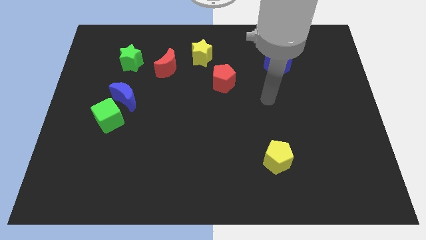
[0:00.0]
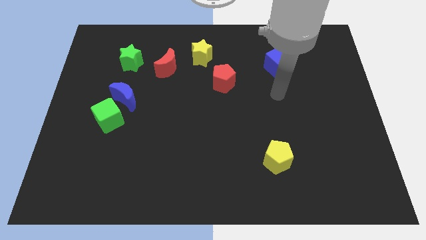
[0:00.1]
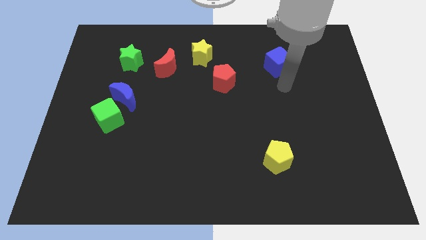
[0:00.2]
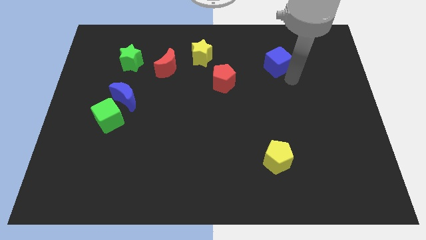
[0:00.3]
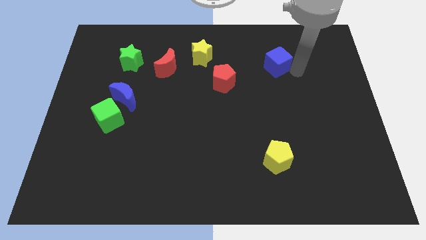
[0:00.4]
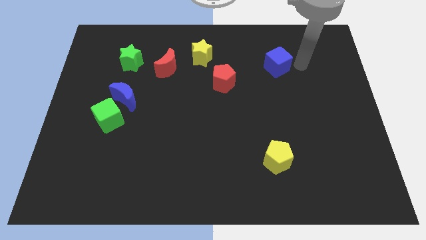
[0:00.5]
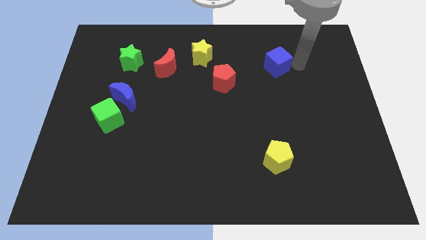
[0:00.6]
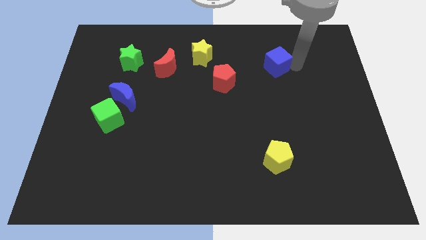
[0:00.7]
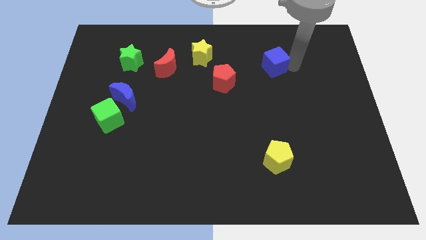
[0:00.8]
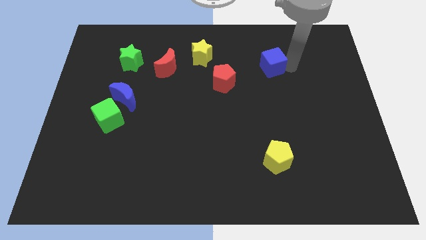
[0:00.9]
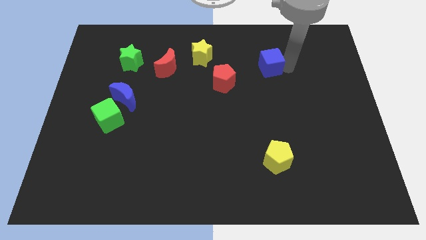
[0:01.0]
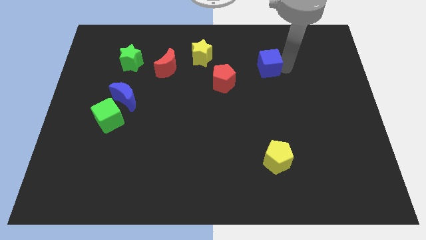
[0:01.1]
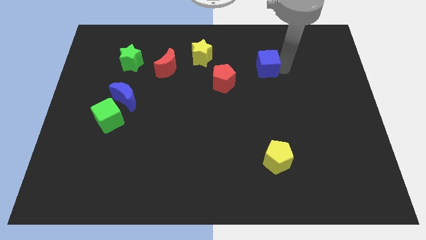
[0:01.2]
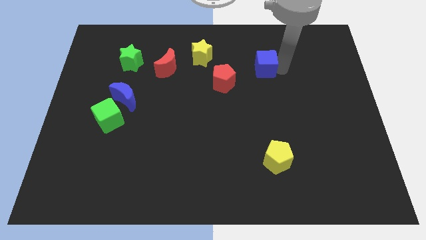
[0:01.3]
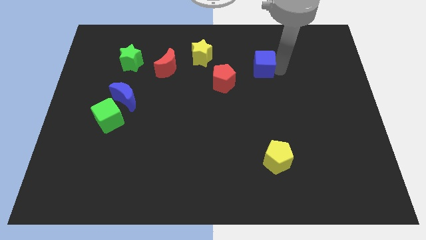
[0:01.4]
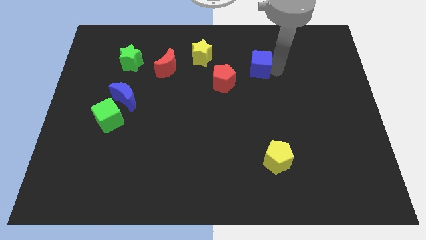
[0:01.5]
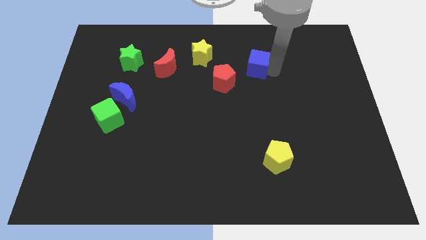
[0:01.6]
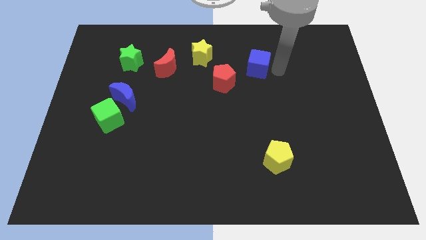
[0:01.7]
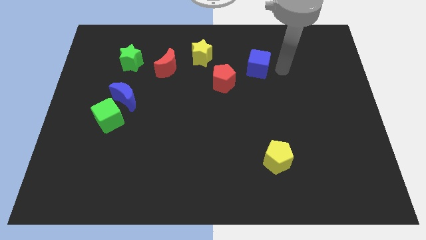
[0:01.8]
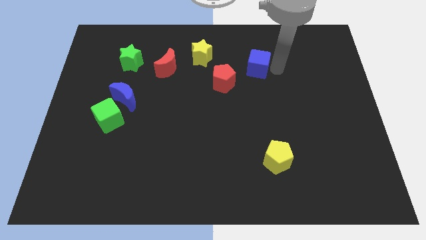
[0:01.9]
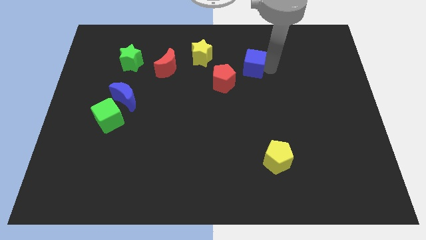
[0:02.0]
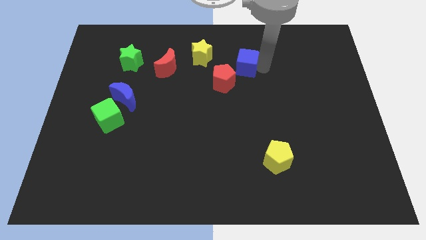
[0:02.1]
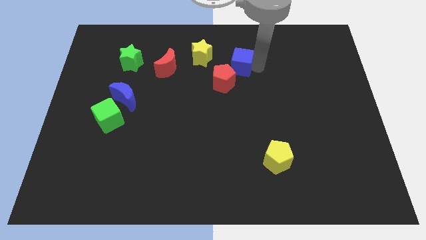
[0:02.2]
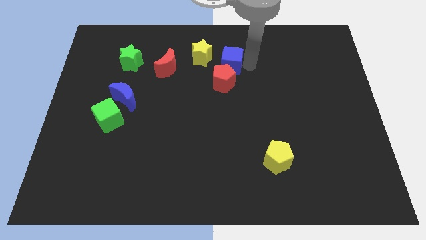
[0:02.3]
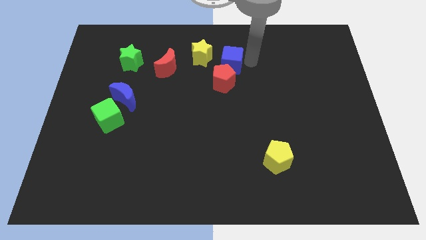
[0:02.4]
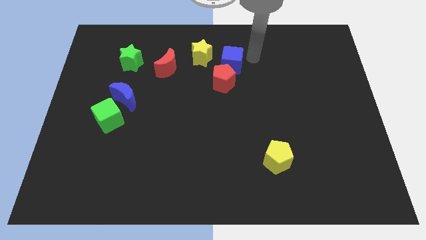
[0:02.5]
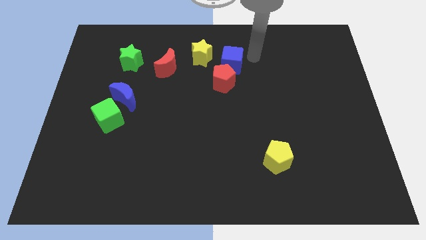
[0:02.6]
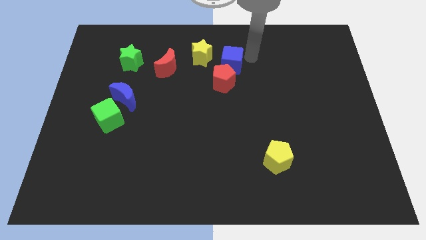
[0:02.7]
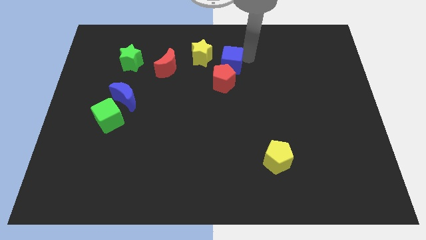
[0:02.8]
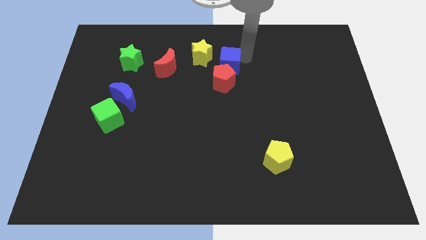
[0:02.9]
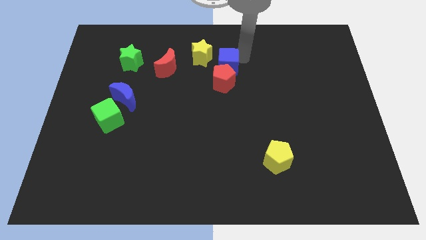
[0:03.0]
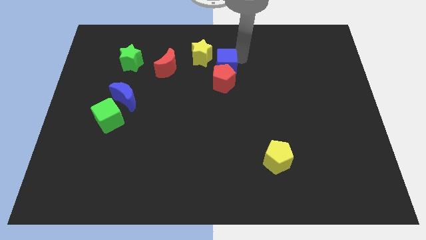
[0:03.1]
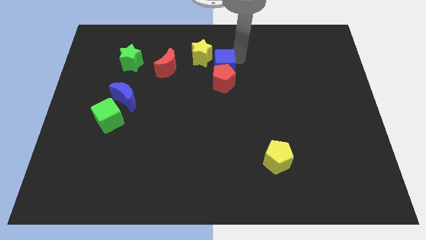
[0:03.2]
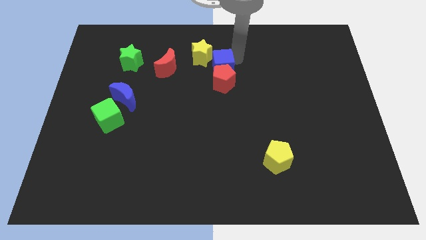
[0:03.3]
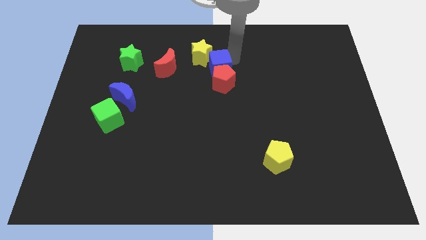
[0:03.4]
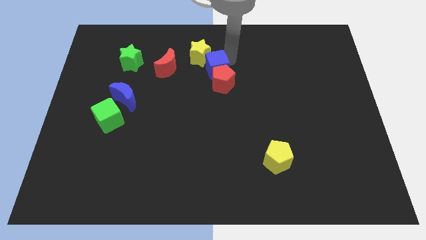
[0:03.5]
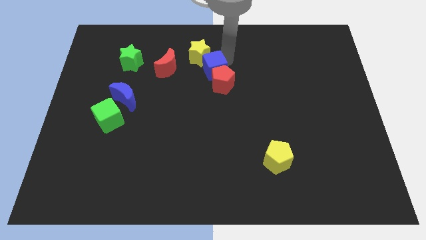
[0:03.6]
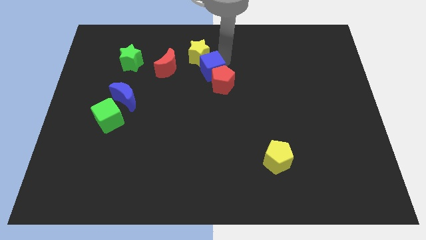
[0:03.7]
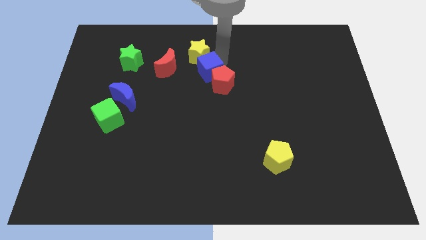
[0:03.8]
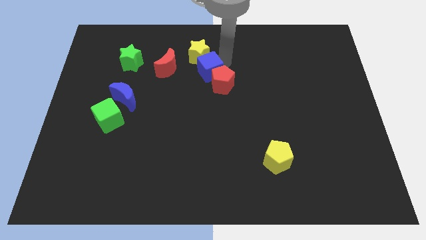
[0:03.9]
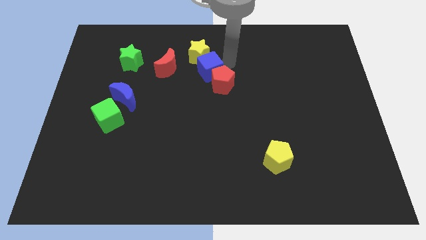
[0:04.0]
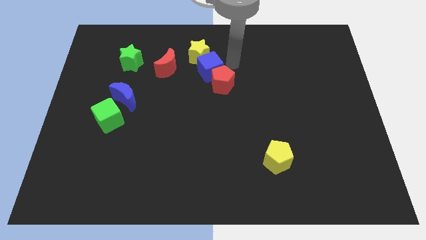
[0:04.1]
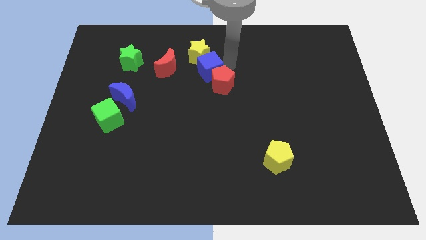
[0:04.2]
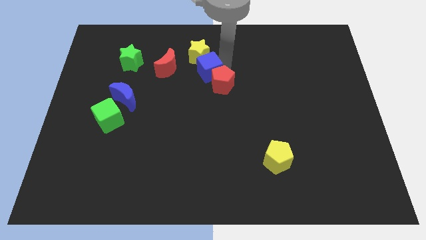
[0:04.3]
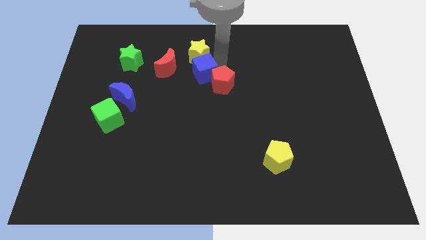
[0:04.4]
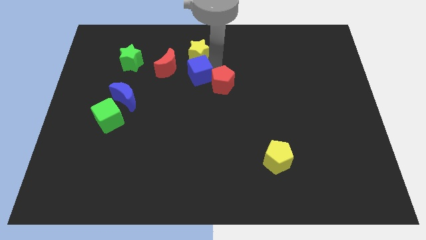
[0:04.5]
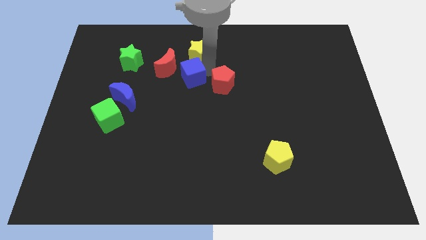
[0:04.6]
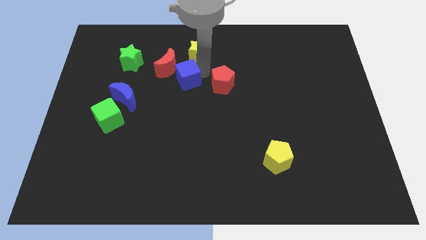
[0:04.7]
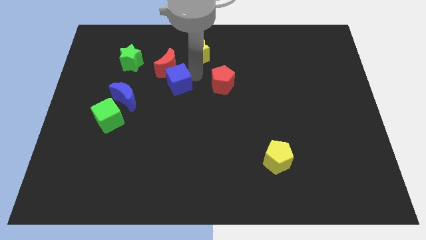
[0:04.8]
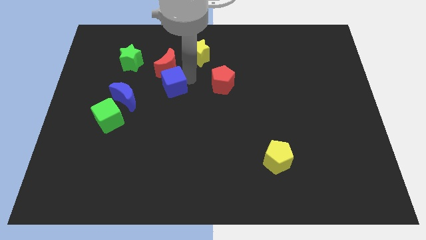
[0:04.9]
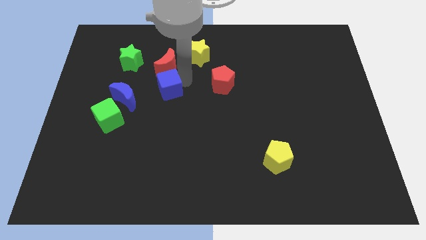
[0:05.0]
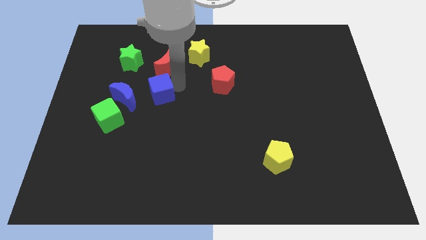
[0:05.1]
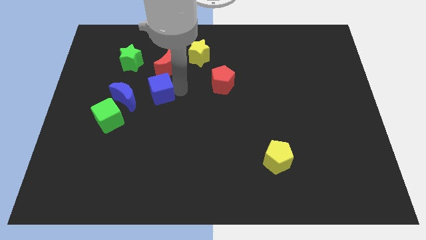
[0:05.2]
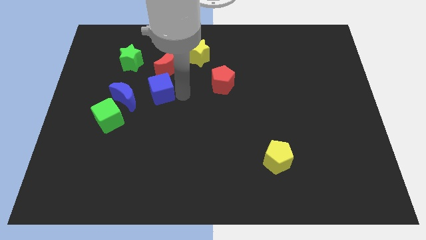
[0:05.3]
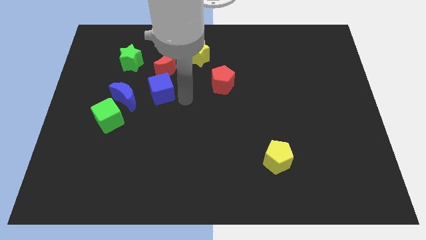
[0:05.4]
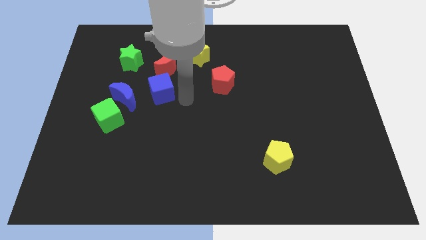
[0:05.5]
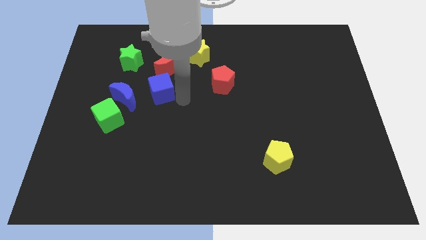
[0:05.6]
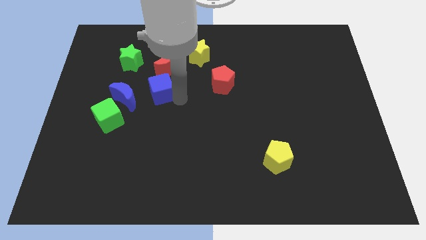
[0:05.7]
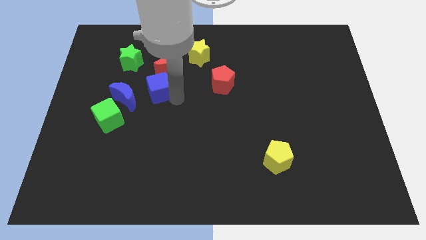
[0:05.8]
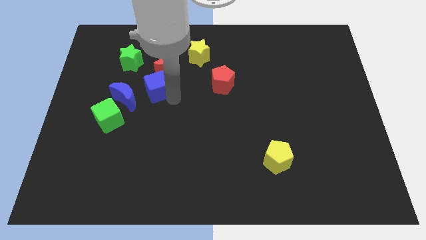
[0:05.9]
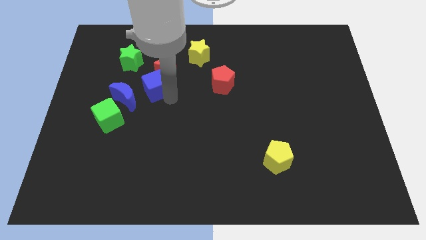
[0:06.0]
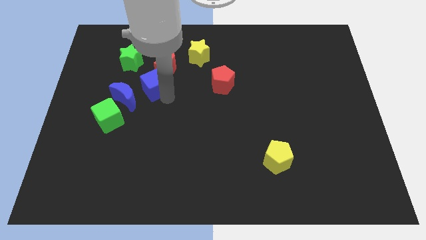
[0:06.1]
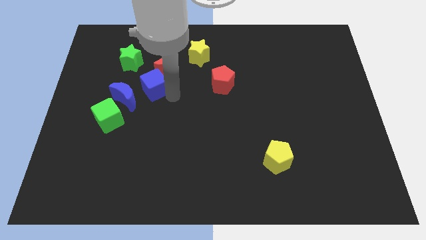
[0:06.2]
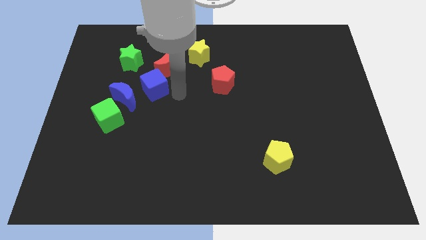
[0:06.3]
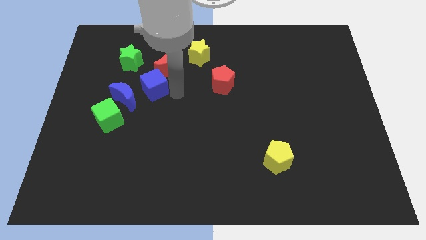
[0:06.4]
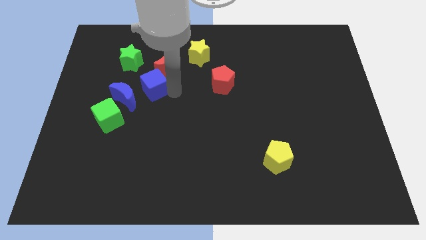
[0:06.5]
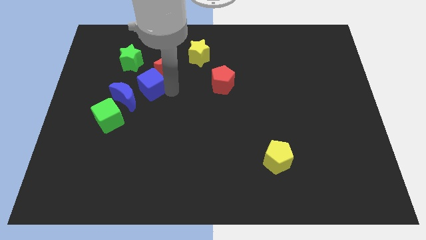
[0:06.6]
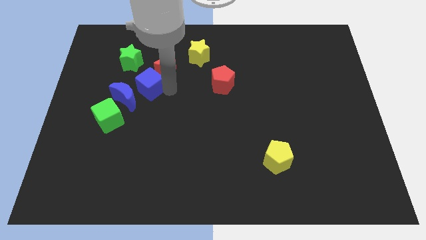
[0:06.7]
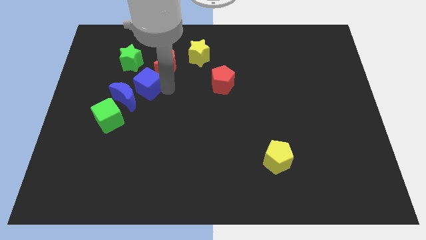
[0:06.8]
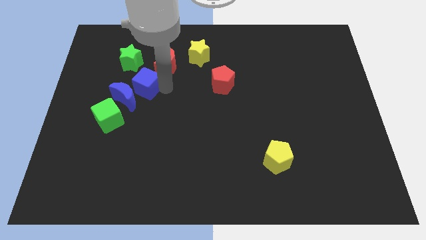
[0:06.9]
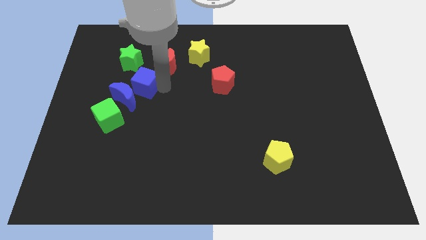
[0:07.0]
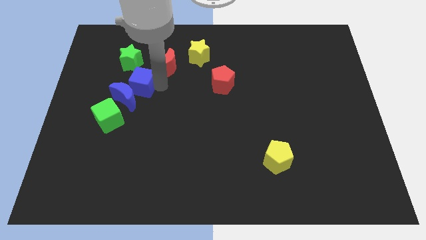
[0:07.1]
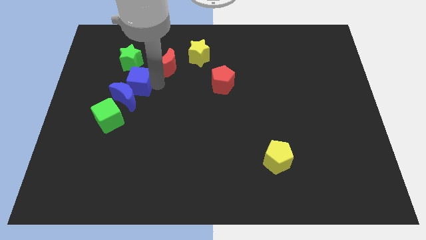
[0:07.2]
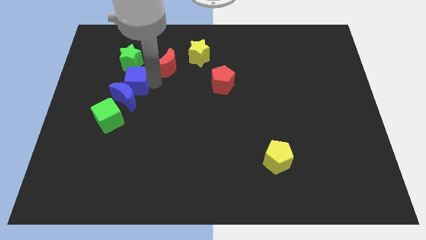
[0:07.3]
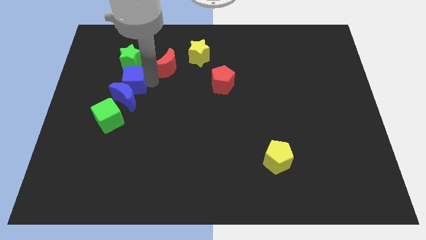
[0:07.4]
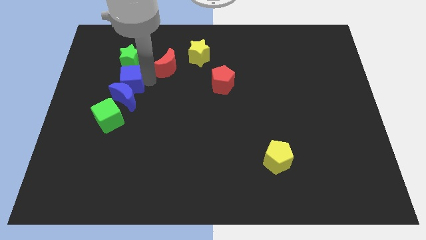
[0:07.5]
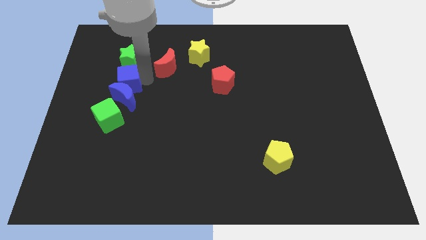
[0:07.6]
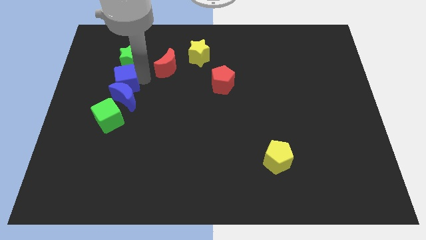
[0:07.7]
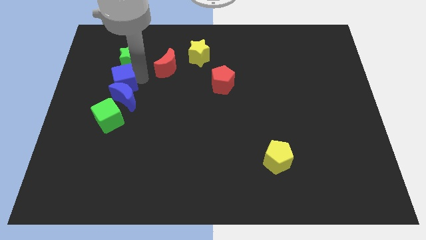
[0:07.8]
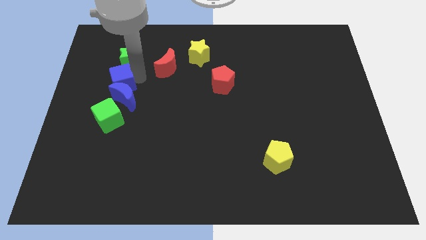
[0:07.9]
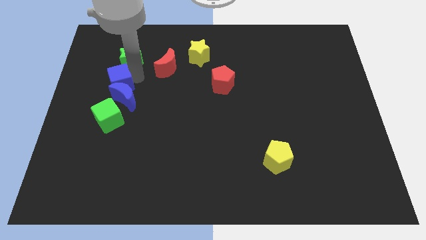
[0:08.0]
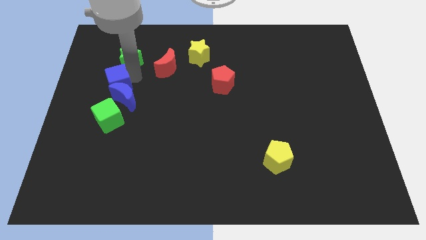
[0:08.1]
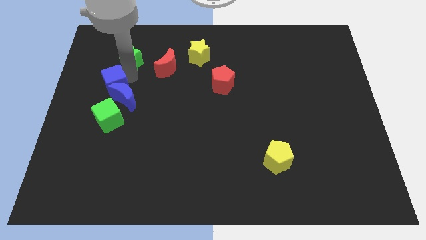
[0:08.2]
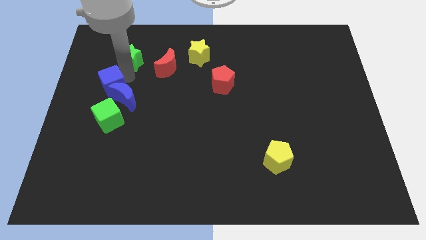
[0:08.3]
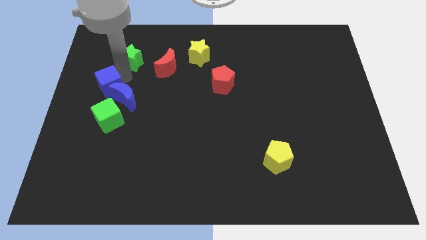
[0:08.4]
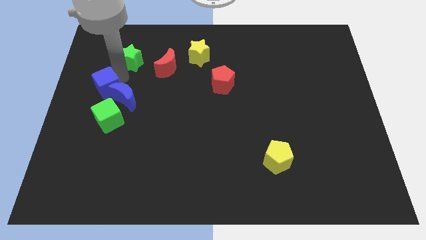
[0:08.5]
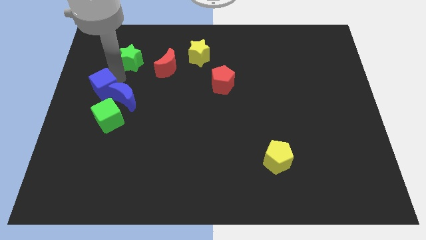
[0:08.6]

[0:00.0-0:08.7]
move the blue cube to the top left side of the green cube
